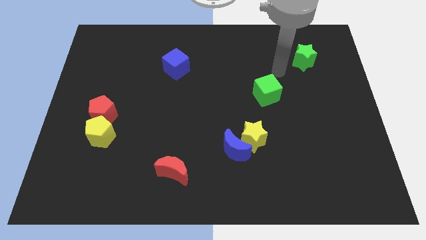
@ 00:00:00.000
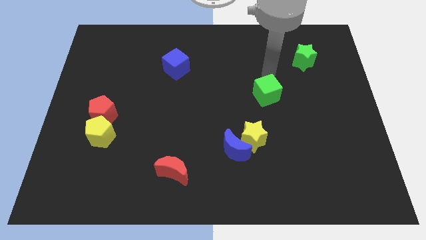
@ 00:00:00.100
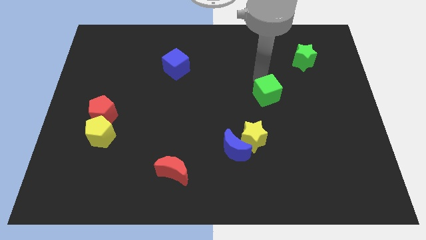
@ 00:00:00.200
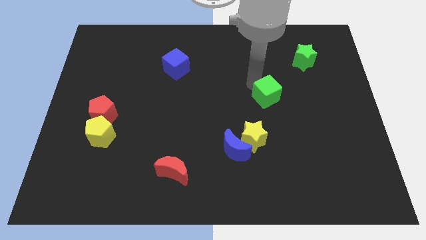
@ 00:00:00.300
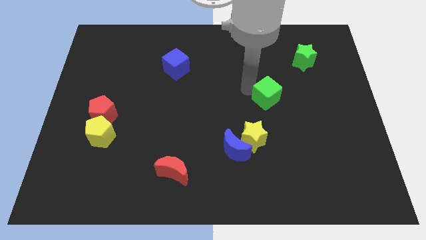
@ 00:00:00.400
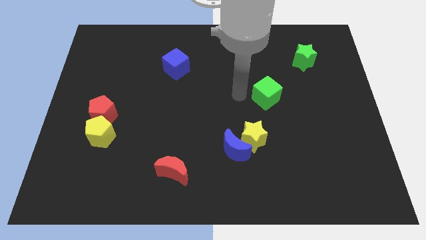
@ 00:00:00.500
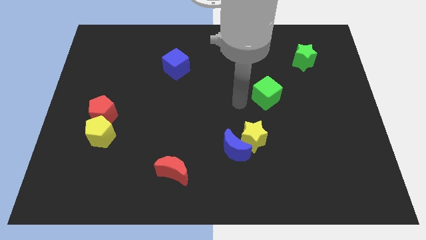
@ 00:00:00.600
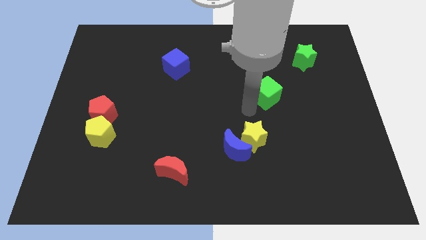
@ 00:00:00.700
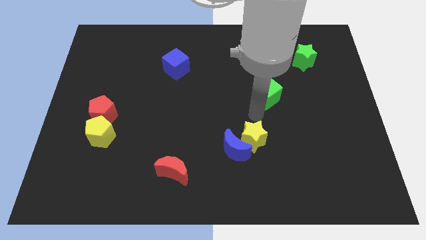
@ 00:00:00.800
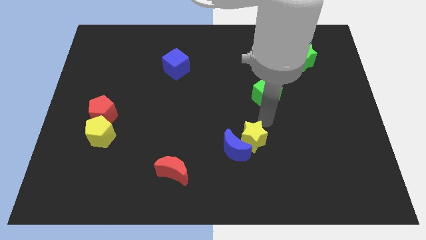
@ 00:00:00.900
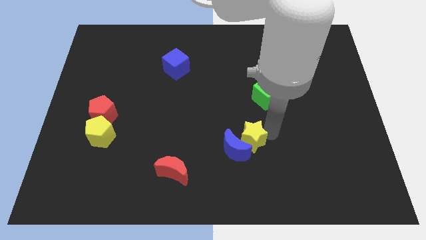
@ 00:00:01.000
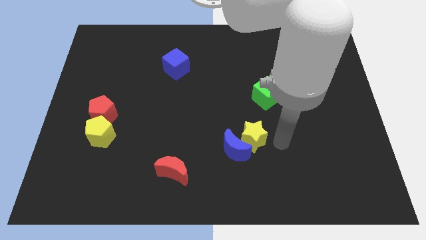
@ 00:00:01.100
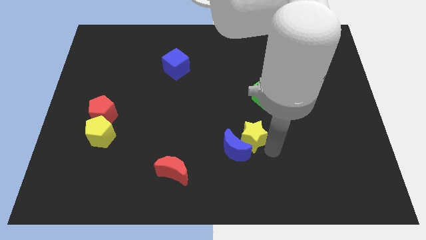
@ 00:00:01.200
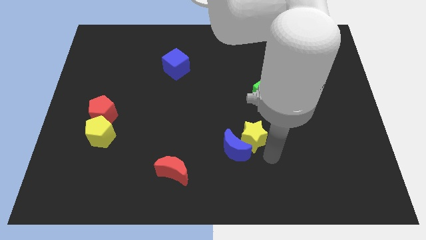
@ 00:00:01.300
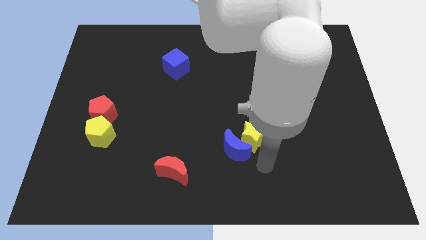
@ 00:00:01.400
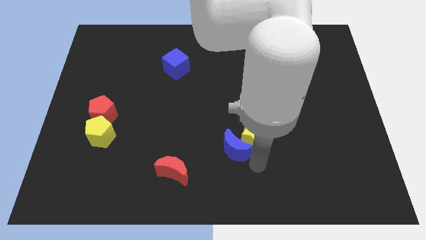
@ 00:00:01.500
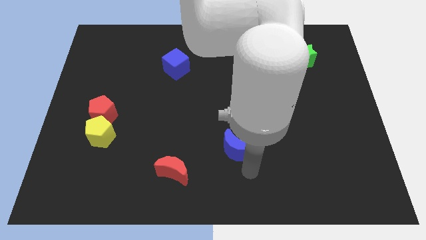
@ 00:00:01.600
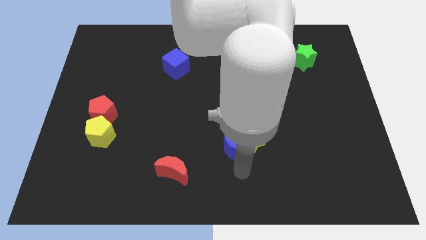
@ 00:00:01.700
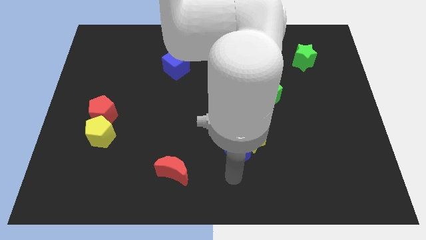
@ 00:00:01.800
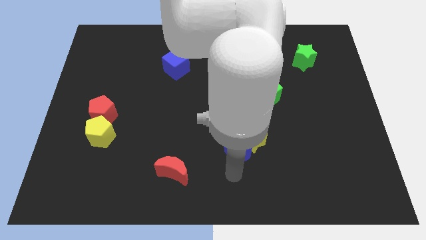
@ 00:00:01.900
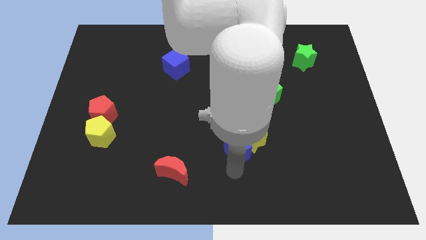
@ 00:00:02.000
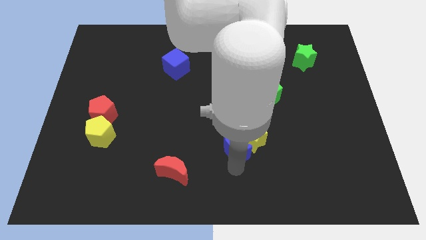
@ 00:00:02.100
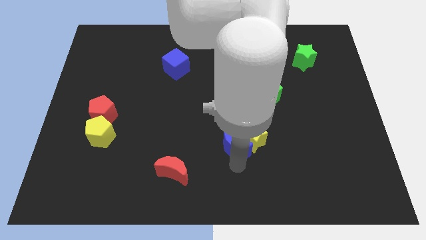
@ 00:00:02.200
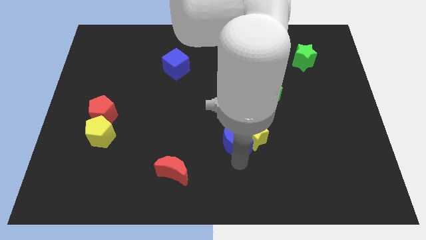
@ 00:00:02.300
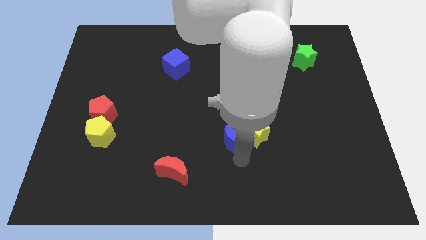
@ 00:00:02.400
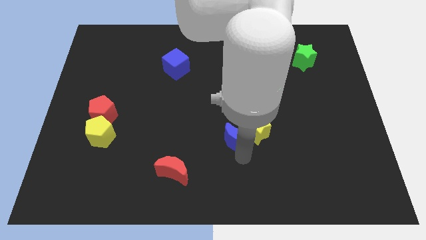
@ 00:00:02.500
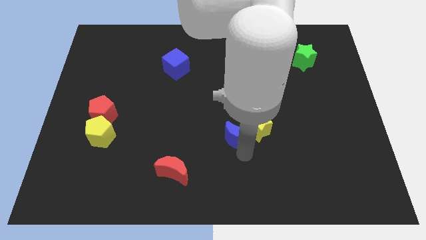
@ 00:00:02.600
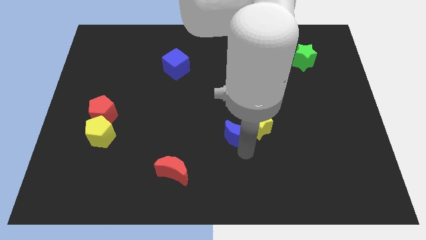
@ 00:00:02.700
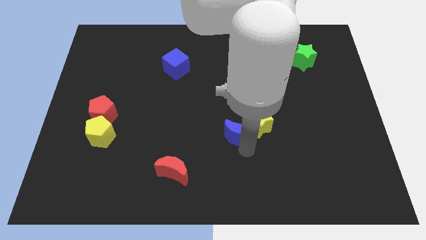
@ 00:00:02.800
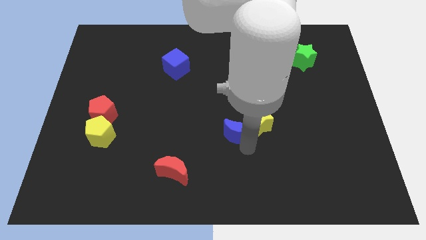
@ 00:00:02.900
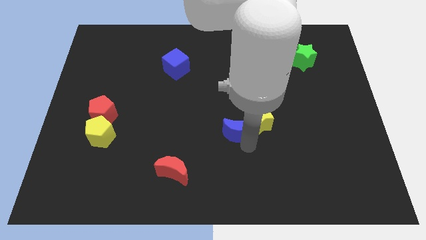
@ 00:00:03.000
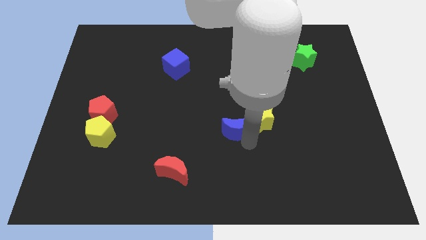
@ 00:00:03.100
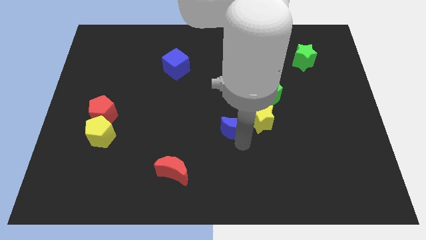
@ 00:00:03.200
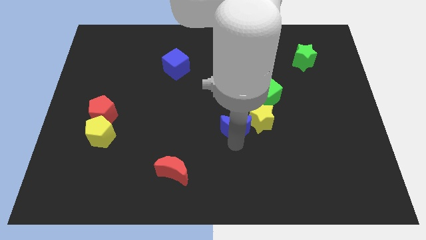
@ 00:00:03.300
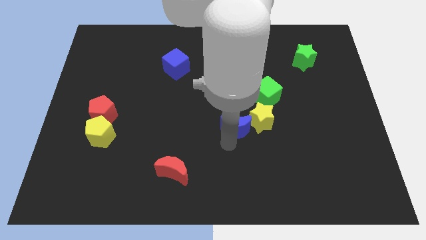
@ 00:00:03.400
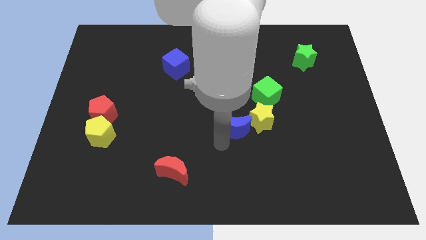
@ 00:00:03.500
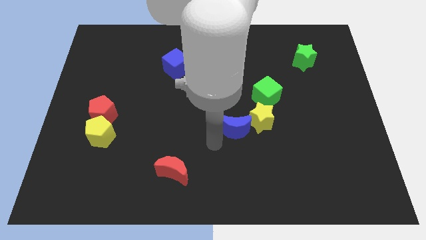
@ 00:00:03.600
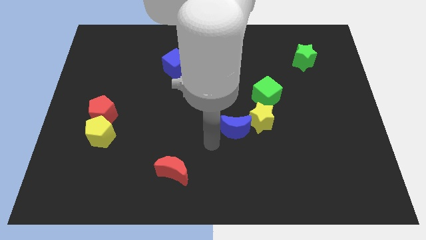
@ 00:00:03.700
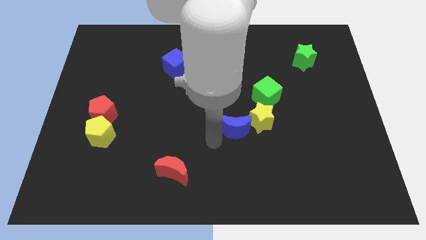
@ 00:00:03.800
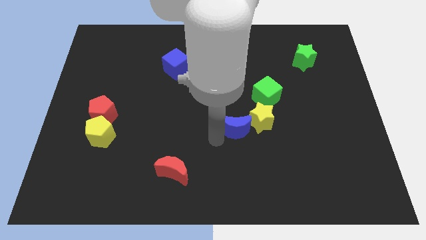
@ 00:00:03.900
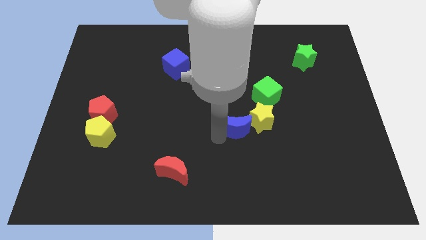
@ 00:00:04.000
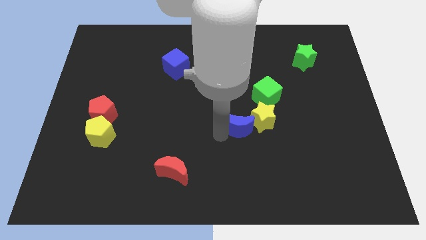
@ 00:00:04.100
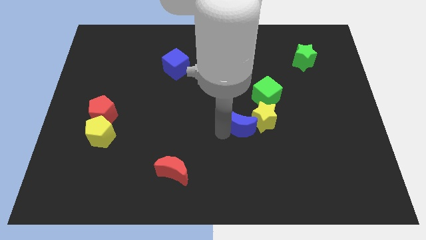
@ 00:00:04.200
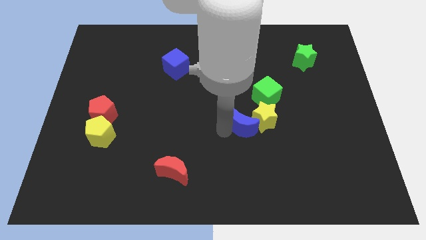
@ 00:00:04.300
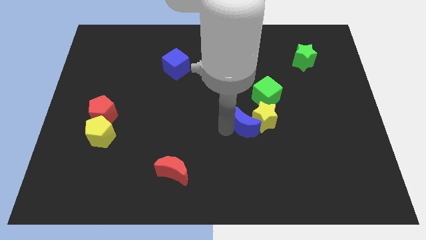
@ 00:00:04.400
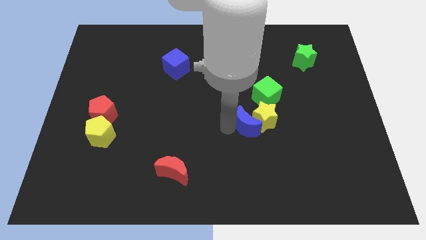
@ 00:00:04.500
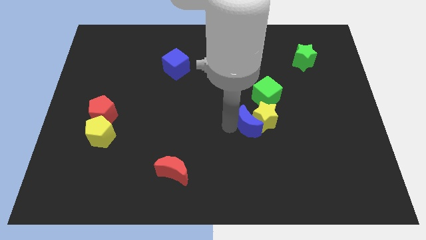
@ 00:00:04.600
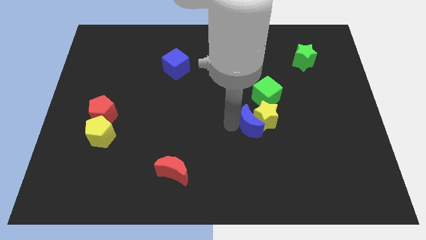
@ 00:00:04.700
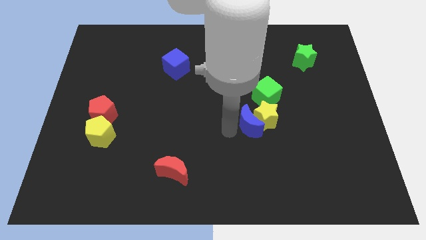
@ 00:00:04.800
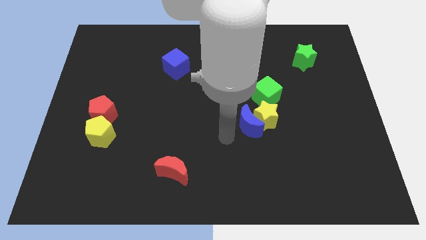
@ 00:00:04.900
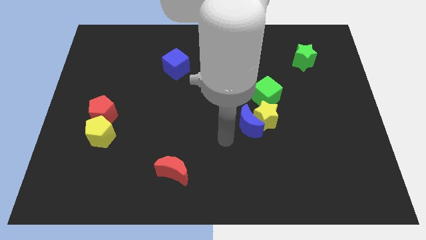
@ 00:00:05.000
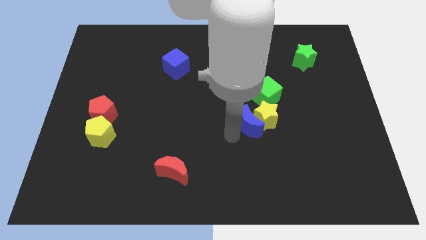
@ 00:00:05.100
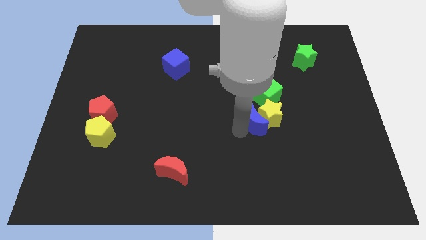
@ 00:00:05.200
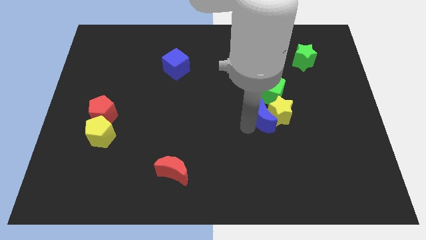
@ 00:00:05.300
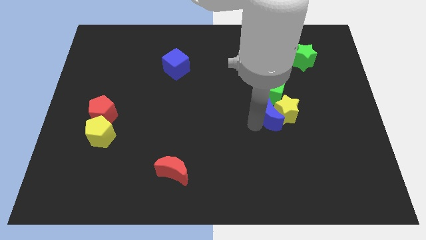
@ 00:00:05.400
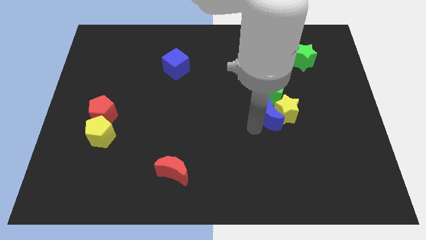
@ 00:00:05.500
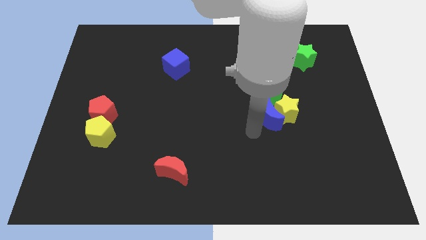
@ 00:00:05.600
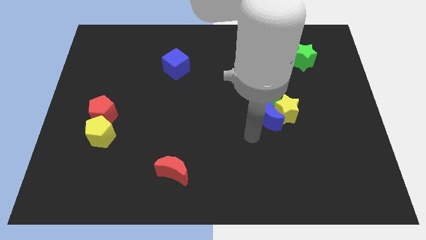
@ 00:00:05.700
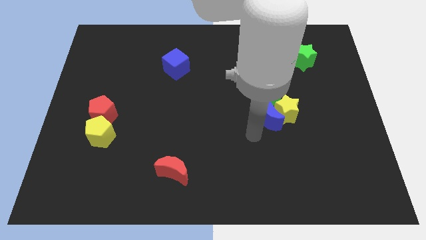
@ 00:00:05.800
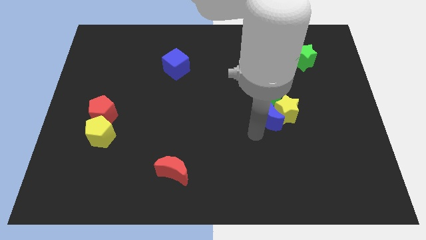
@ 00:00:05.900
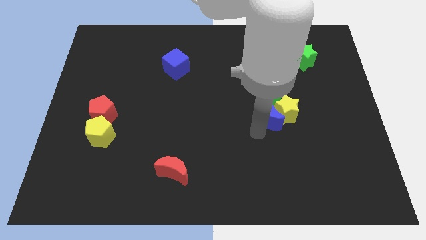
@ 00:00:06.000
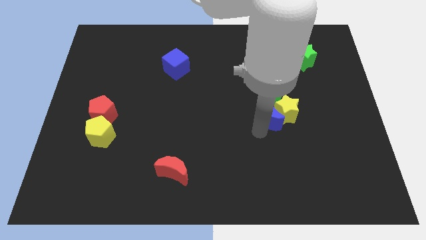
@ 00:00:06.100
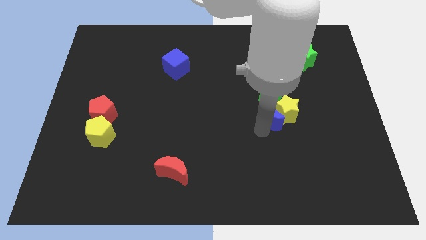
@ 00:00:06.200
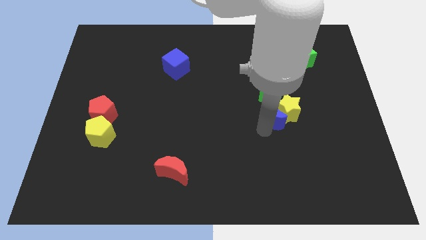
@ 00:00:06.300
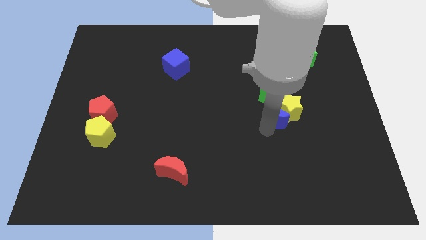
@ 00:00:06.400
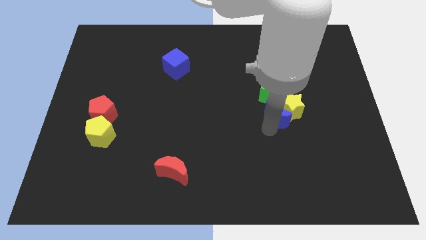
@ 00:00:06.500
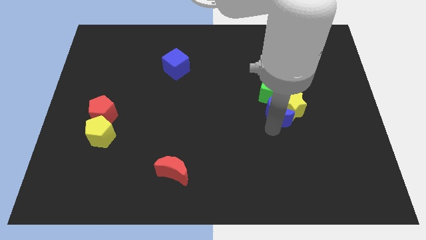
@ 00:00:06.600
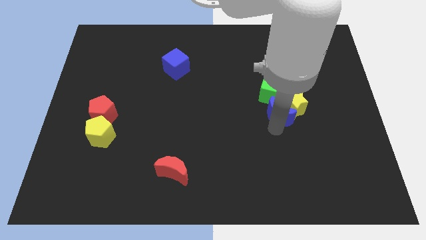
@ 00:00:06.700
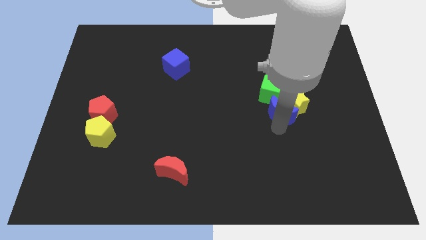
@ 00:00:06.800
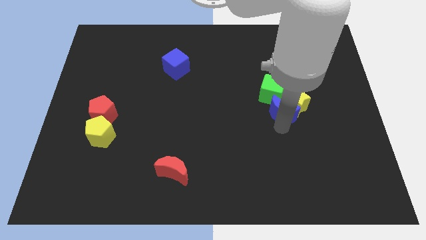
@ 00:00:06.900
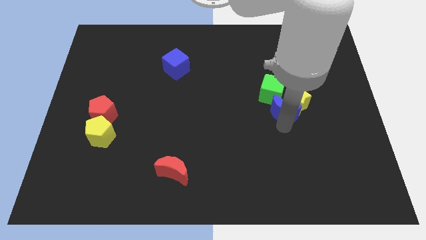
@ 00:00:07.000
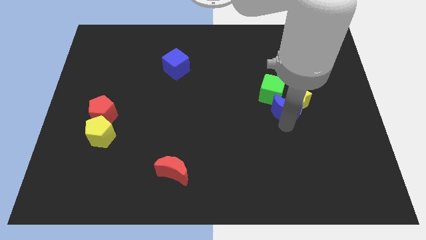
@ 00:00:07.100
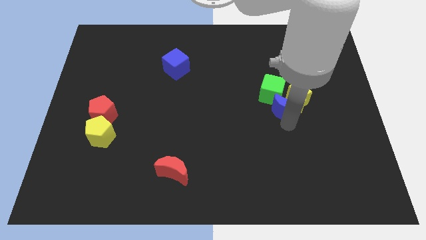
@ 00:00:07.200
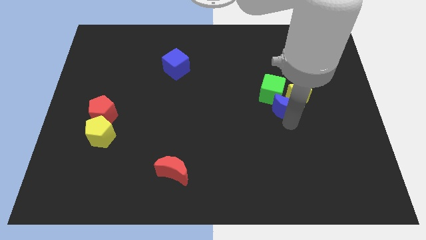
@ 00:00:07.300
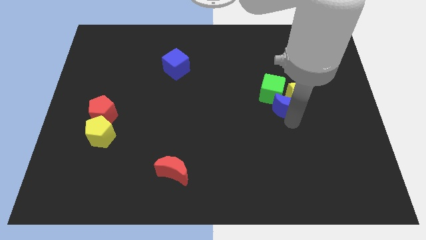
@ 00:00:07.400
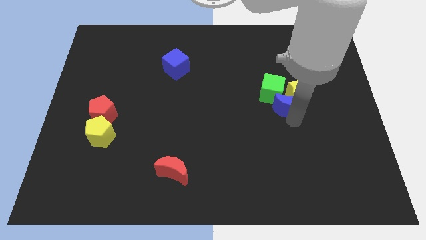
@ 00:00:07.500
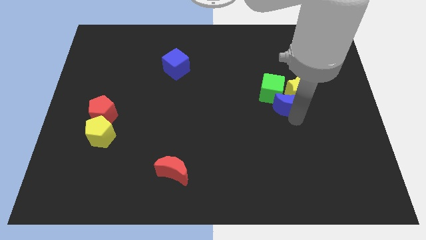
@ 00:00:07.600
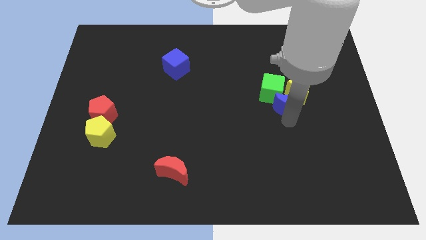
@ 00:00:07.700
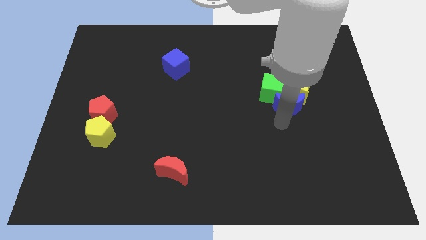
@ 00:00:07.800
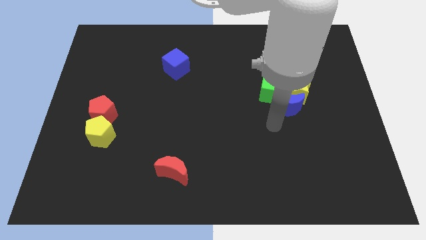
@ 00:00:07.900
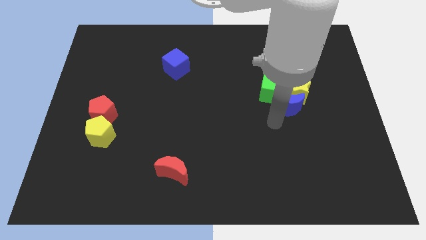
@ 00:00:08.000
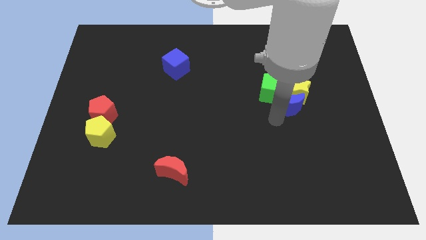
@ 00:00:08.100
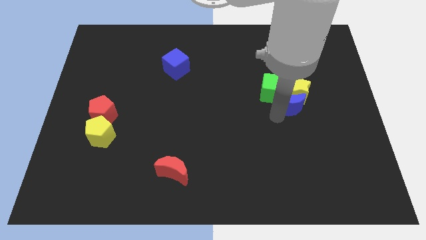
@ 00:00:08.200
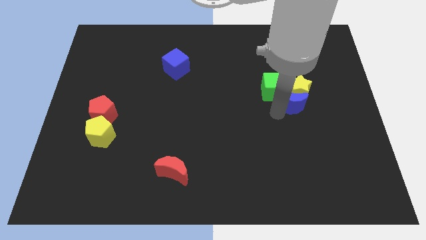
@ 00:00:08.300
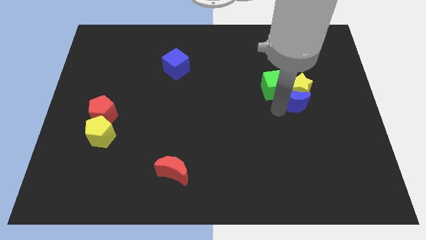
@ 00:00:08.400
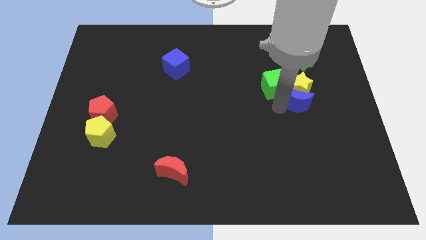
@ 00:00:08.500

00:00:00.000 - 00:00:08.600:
push the blue moon up and right diagonally
